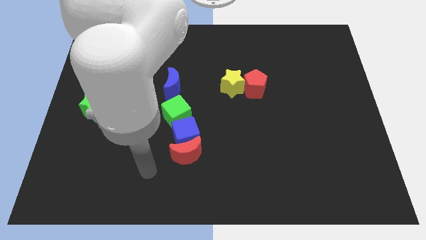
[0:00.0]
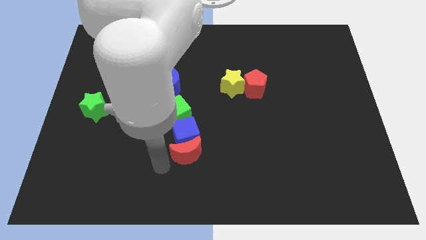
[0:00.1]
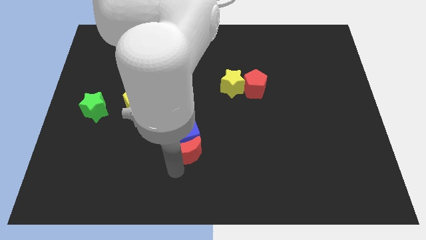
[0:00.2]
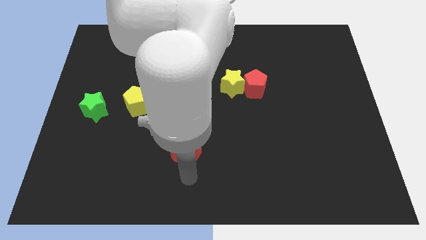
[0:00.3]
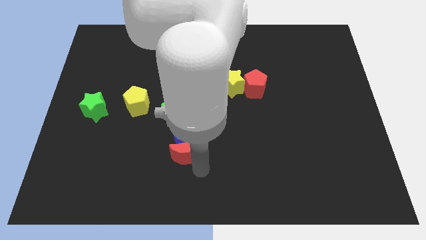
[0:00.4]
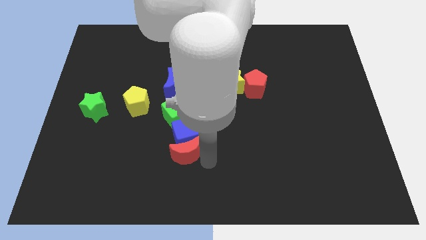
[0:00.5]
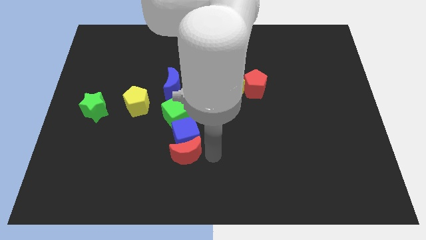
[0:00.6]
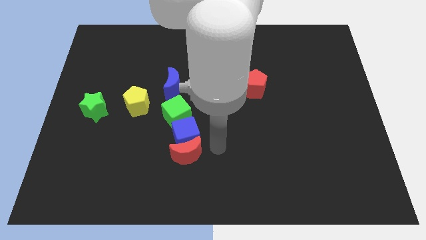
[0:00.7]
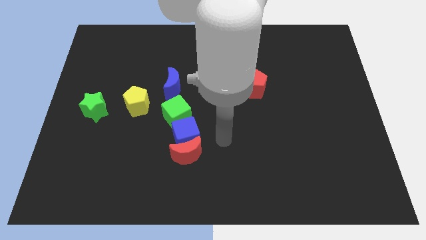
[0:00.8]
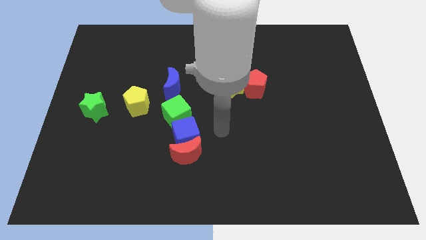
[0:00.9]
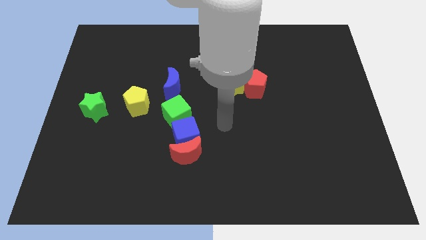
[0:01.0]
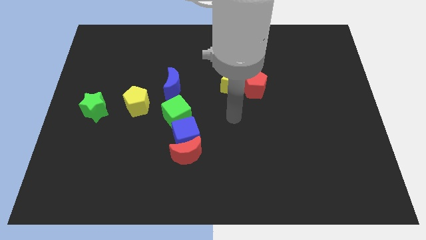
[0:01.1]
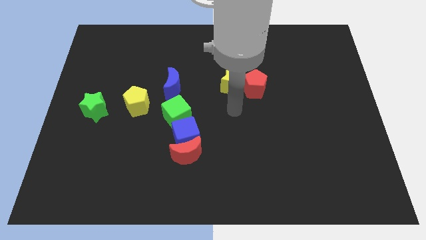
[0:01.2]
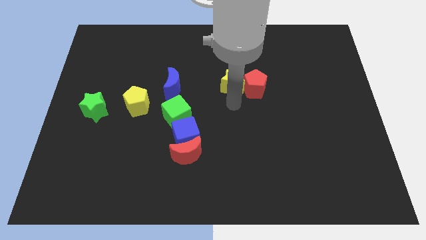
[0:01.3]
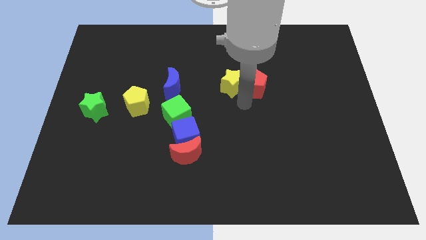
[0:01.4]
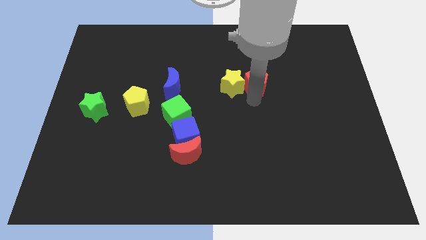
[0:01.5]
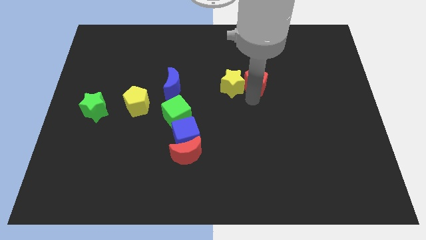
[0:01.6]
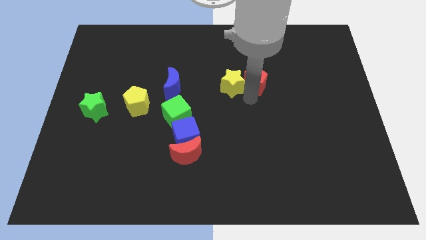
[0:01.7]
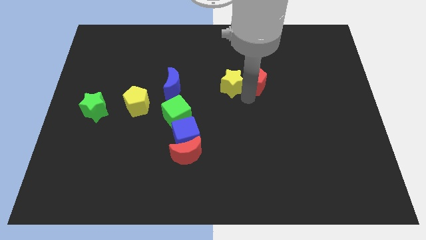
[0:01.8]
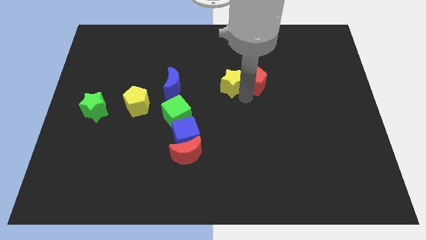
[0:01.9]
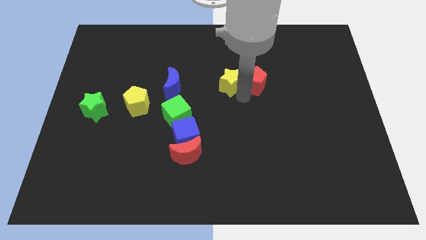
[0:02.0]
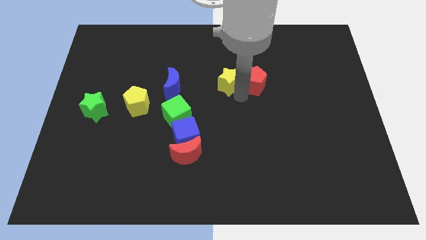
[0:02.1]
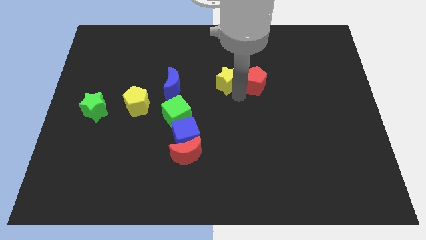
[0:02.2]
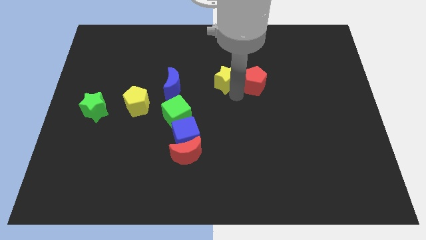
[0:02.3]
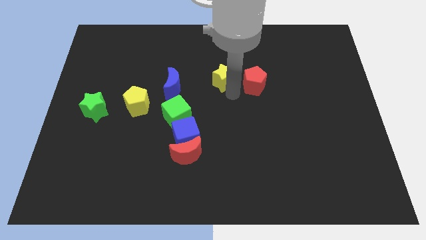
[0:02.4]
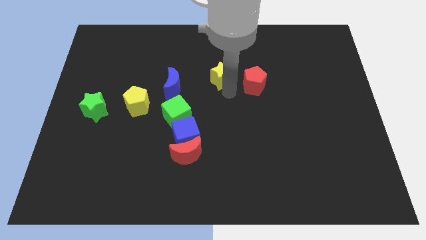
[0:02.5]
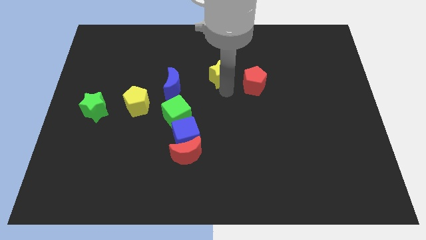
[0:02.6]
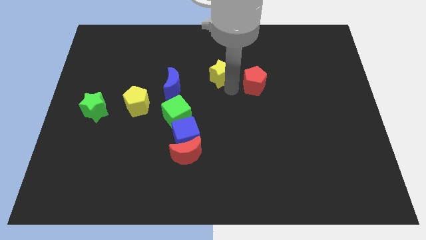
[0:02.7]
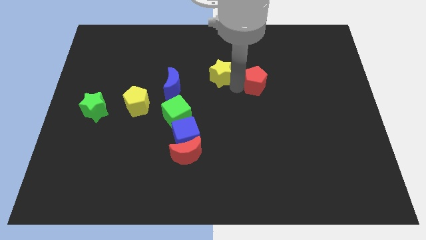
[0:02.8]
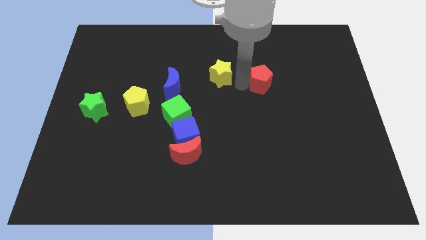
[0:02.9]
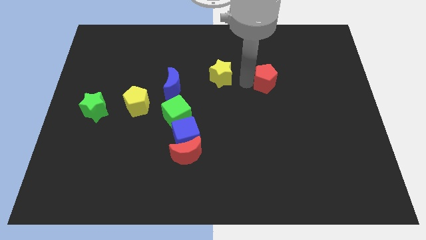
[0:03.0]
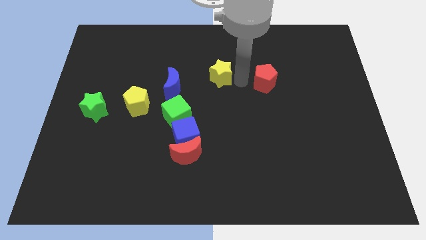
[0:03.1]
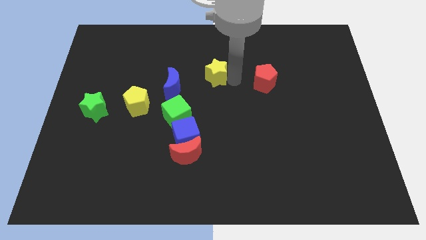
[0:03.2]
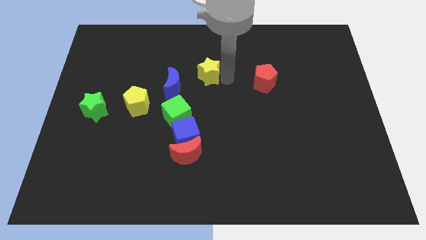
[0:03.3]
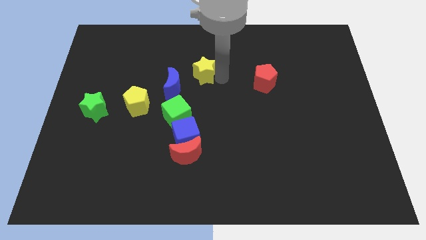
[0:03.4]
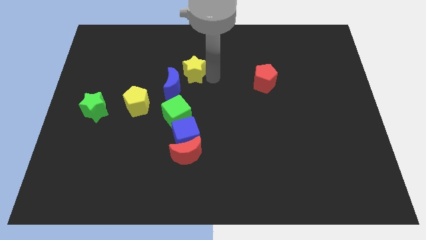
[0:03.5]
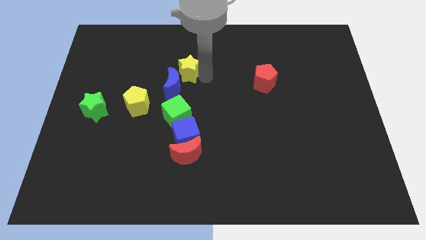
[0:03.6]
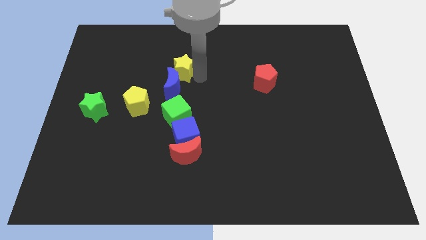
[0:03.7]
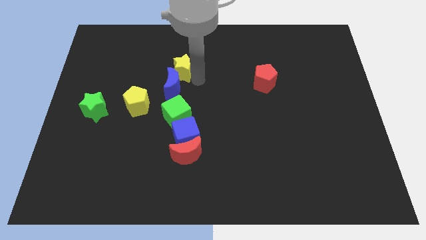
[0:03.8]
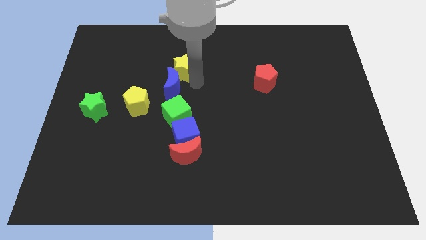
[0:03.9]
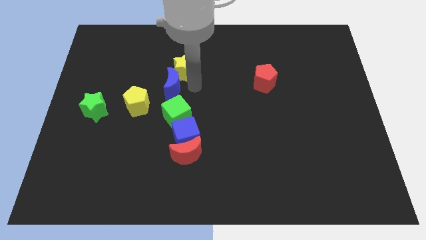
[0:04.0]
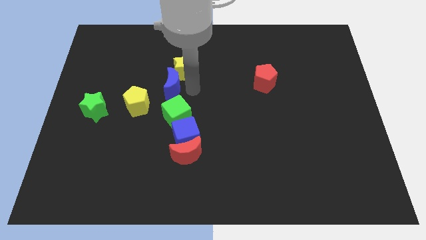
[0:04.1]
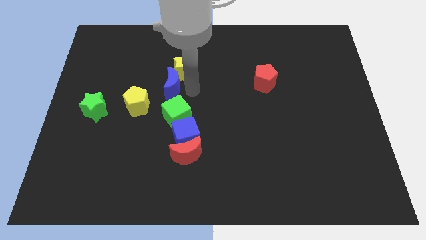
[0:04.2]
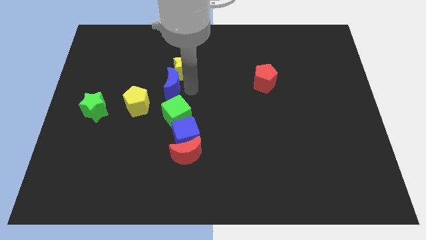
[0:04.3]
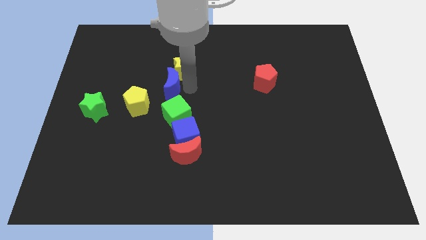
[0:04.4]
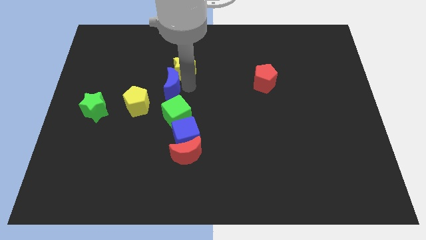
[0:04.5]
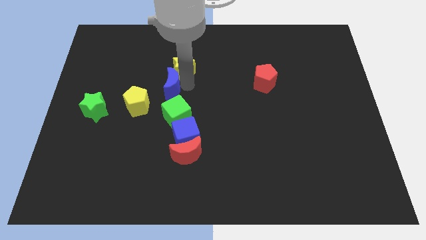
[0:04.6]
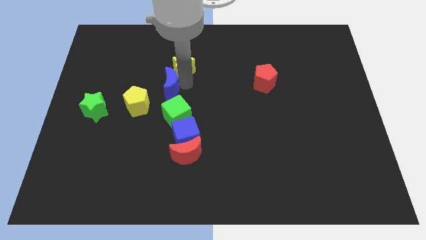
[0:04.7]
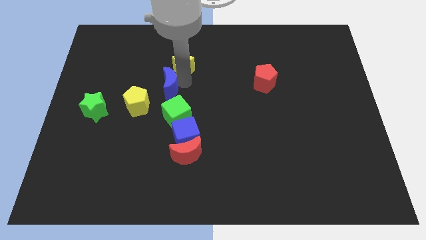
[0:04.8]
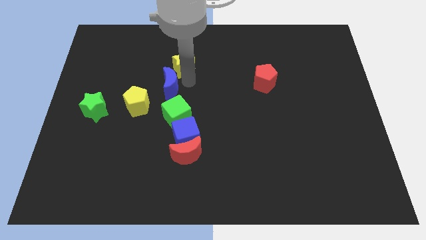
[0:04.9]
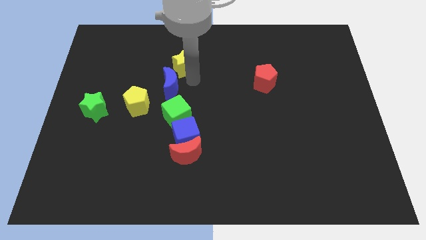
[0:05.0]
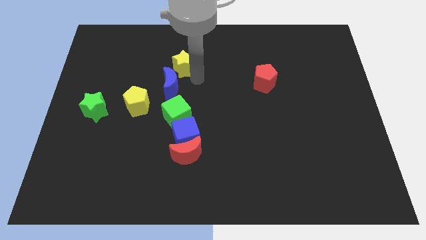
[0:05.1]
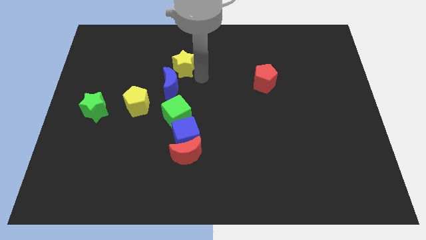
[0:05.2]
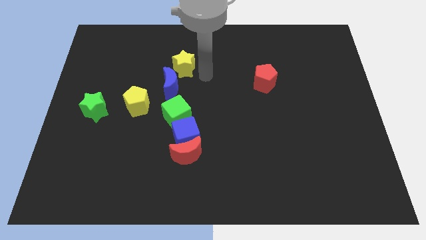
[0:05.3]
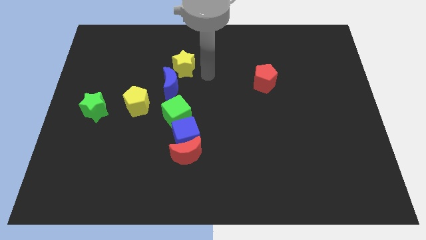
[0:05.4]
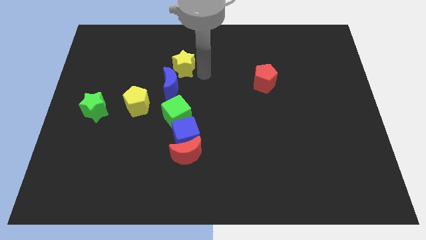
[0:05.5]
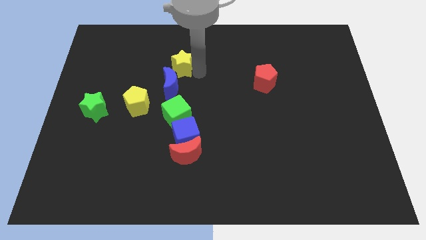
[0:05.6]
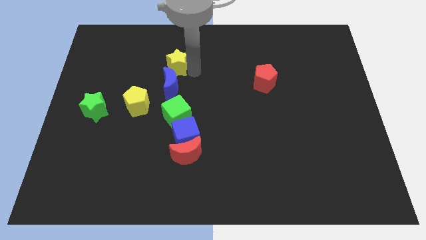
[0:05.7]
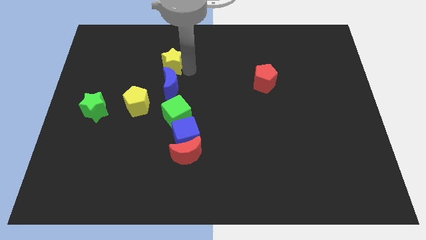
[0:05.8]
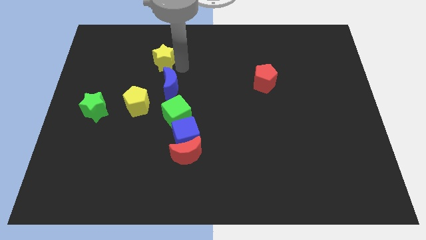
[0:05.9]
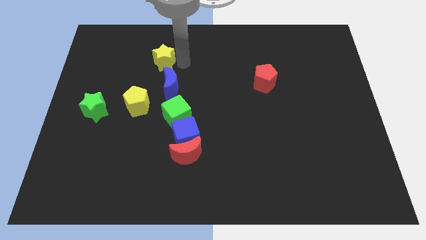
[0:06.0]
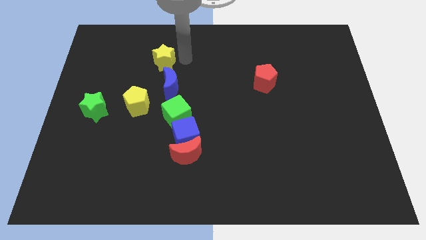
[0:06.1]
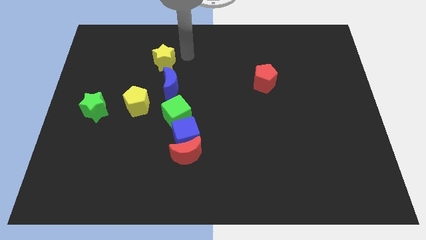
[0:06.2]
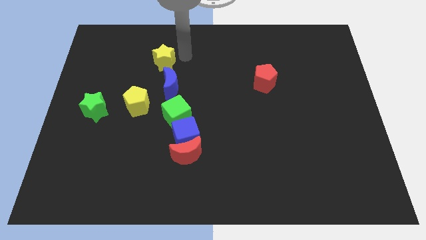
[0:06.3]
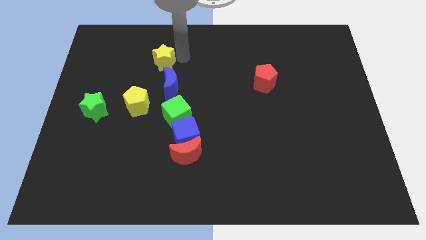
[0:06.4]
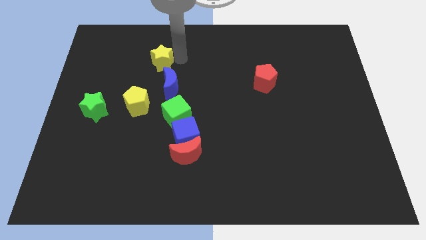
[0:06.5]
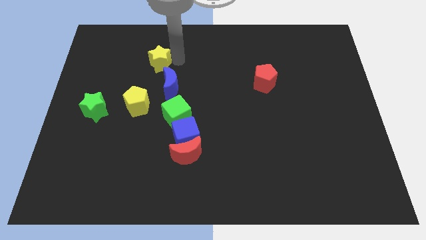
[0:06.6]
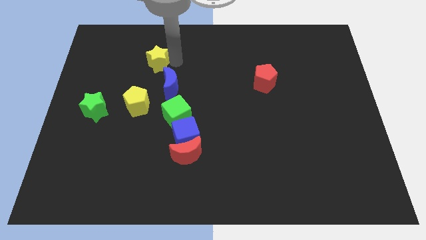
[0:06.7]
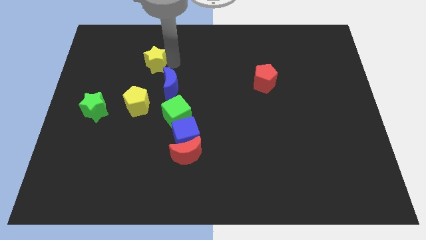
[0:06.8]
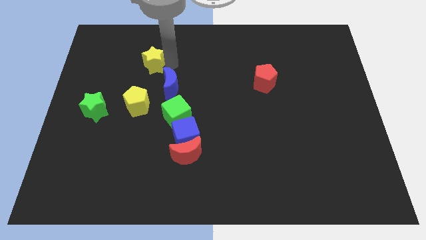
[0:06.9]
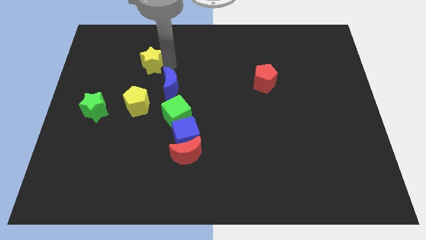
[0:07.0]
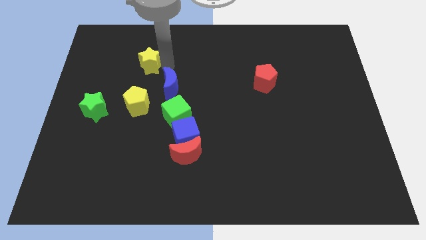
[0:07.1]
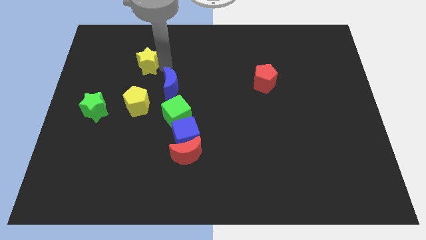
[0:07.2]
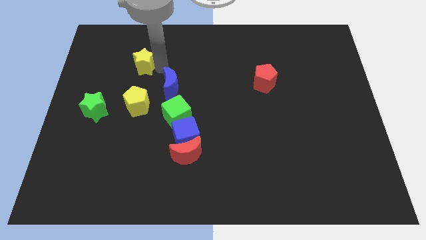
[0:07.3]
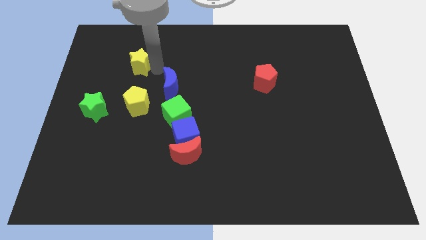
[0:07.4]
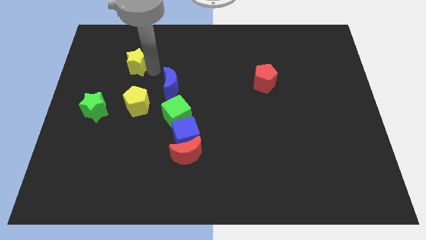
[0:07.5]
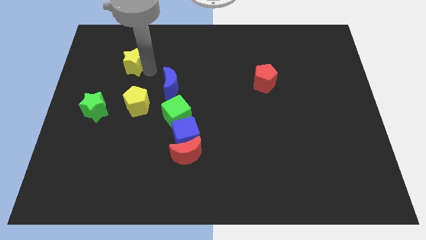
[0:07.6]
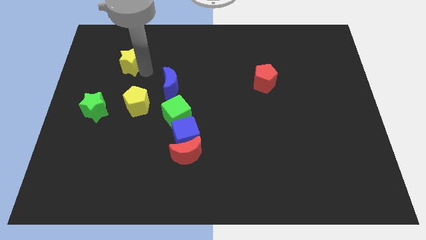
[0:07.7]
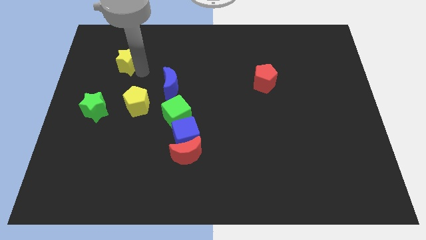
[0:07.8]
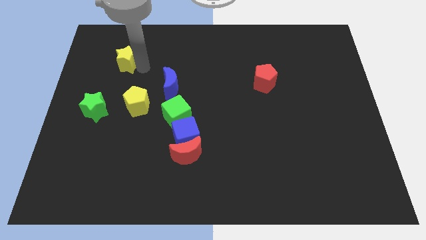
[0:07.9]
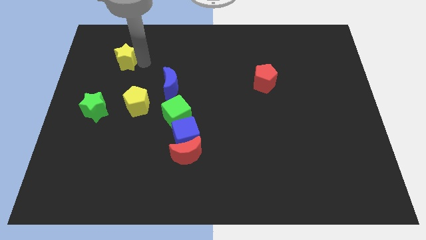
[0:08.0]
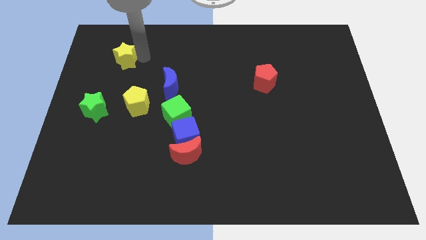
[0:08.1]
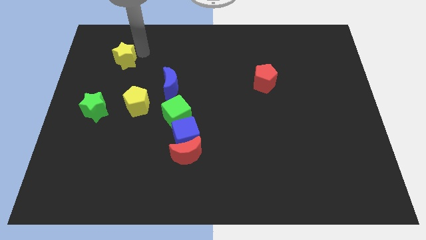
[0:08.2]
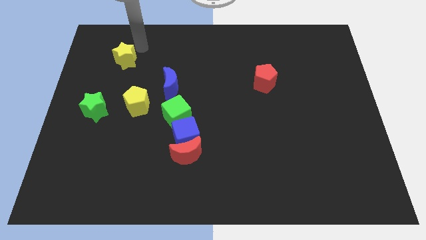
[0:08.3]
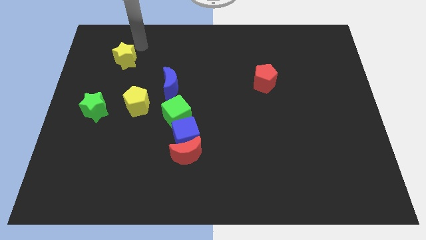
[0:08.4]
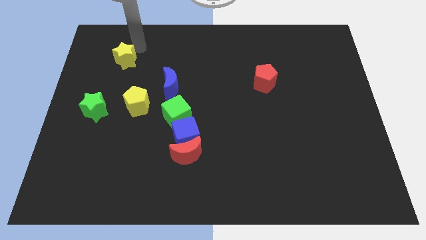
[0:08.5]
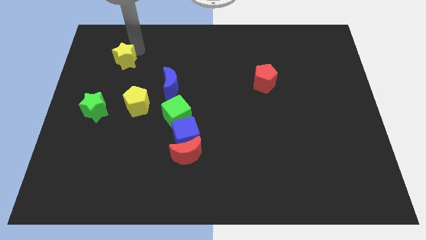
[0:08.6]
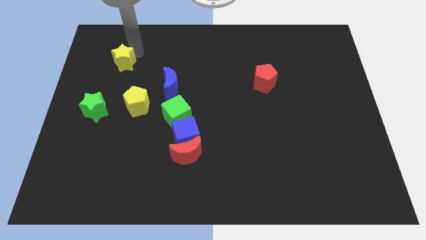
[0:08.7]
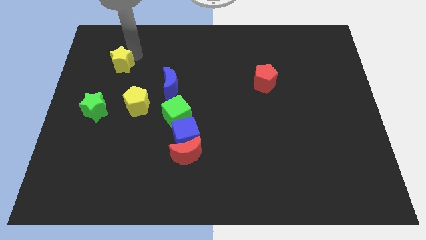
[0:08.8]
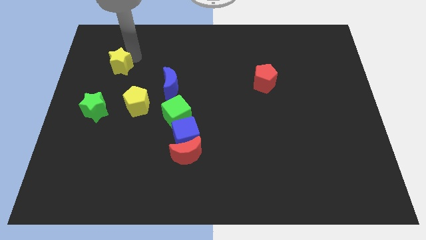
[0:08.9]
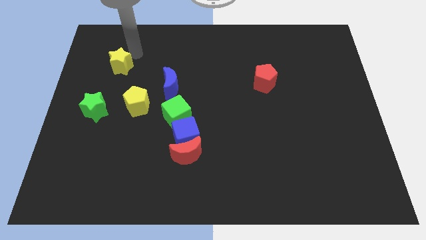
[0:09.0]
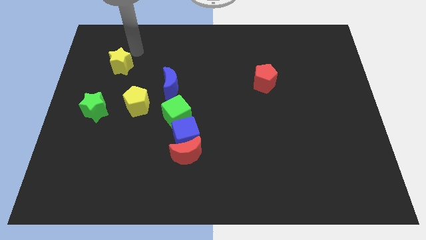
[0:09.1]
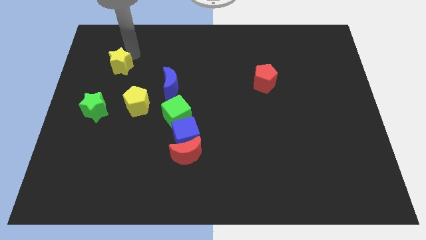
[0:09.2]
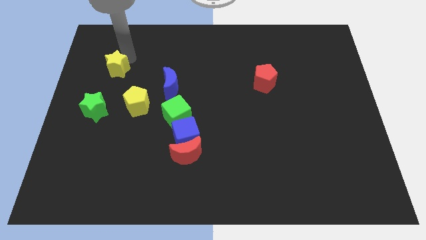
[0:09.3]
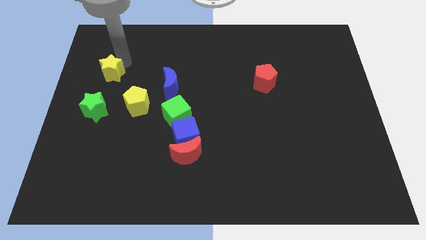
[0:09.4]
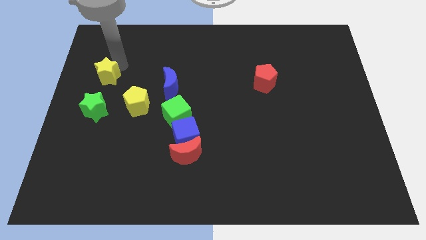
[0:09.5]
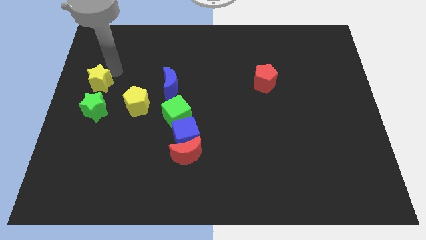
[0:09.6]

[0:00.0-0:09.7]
move the yellow star to the center left
